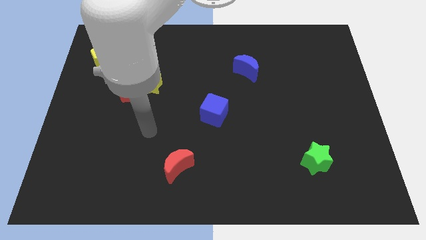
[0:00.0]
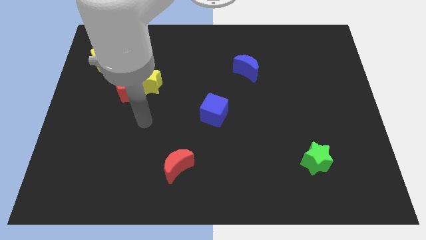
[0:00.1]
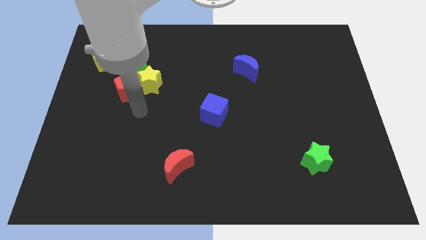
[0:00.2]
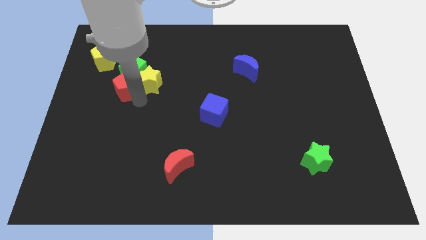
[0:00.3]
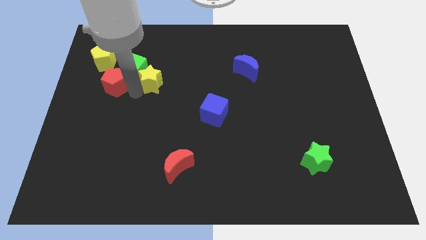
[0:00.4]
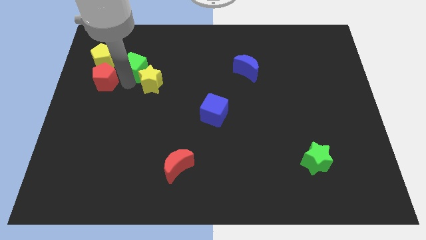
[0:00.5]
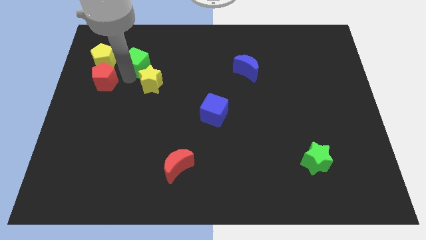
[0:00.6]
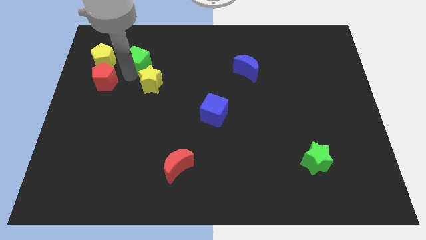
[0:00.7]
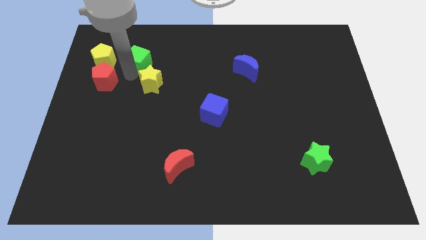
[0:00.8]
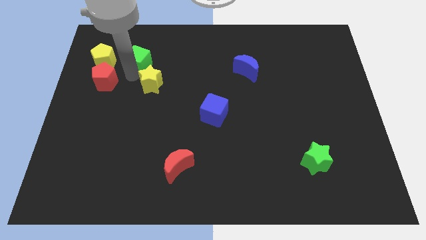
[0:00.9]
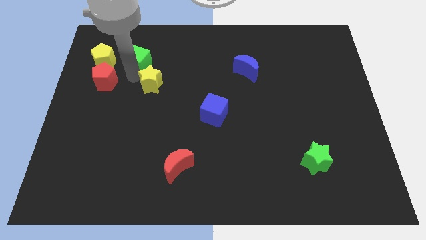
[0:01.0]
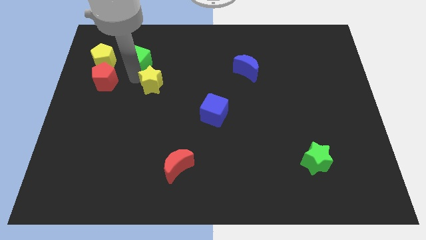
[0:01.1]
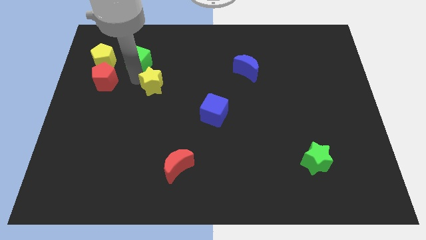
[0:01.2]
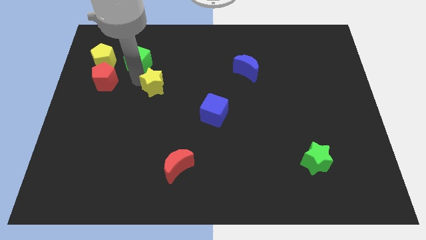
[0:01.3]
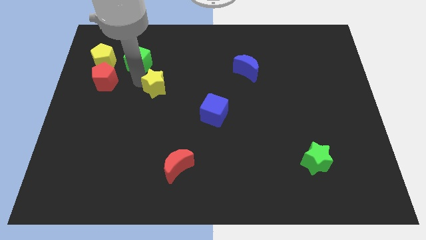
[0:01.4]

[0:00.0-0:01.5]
separate the yellow star from the green cube and red pentagon

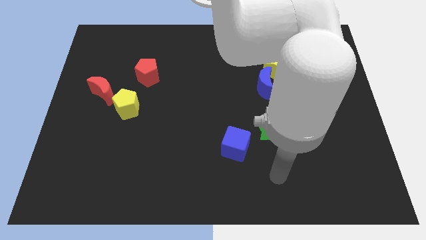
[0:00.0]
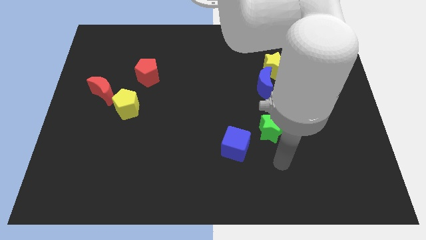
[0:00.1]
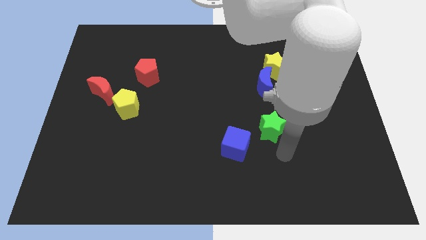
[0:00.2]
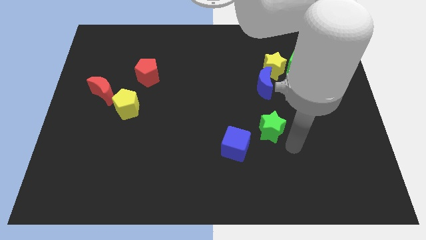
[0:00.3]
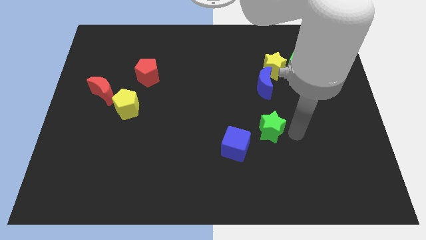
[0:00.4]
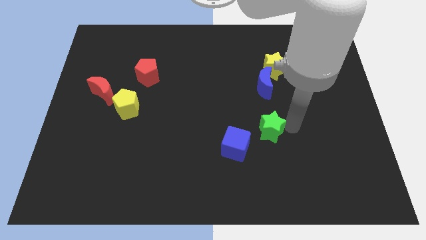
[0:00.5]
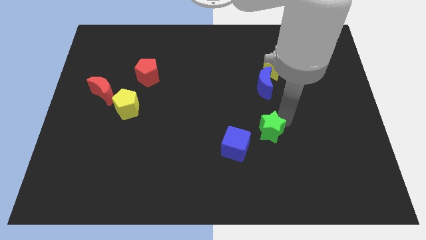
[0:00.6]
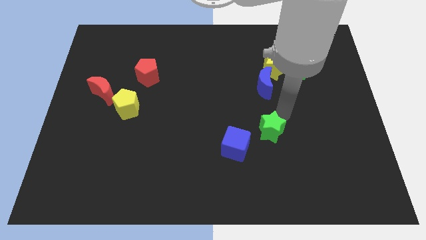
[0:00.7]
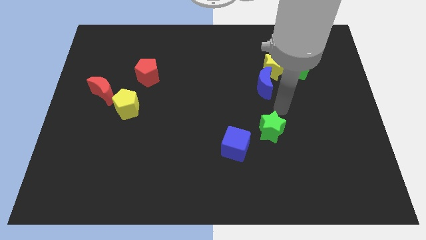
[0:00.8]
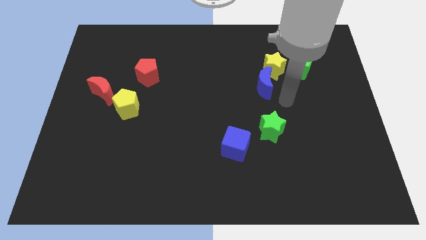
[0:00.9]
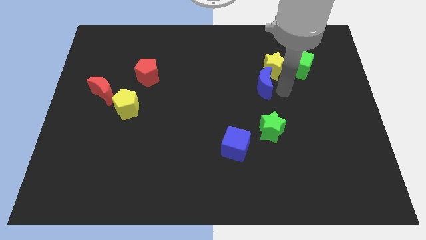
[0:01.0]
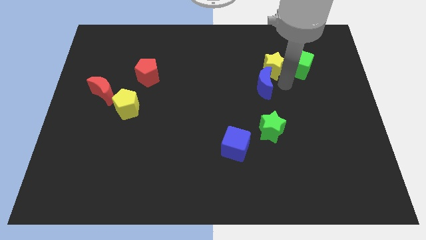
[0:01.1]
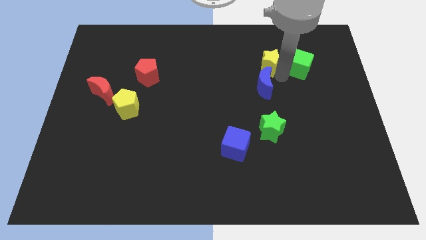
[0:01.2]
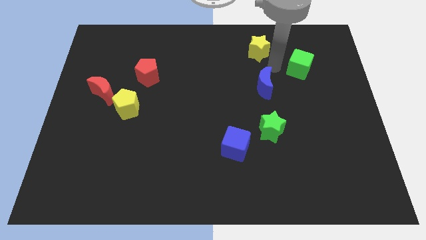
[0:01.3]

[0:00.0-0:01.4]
pull the green cube apart from the yellow star

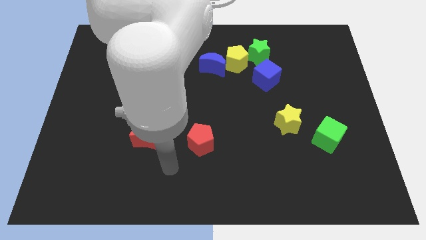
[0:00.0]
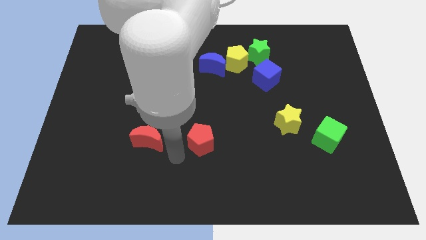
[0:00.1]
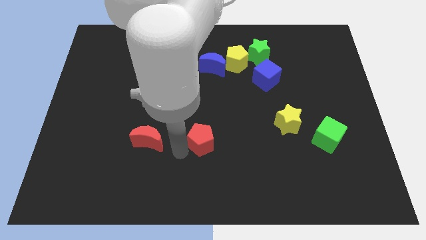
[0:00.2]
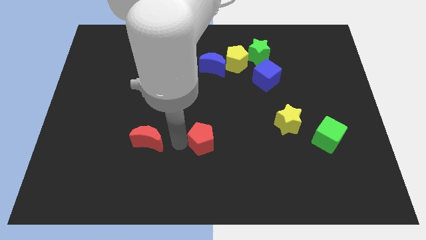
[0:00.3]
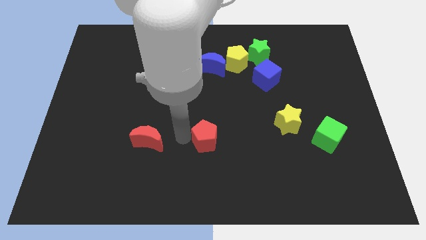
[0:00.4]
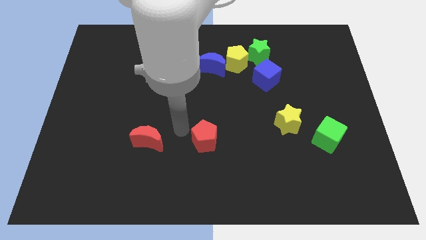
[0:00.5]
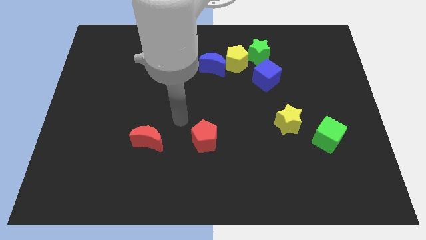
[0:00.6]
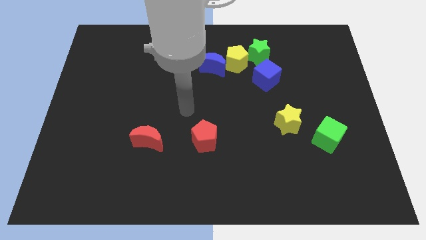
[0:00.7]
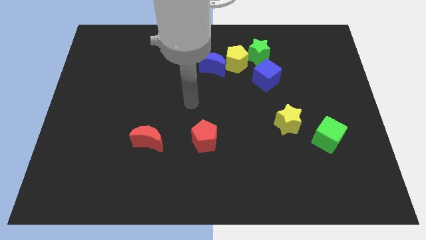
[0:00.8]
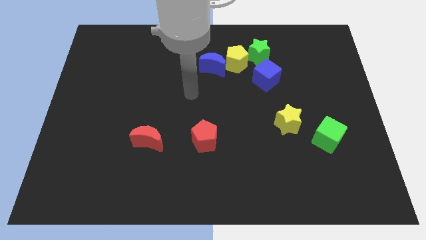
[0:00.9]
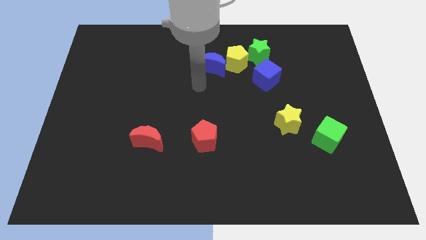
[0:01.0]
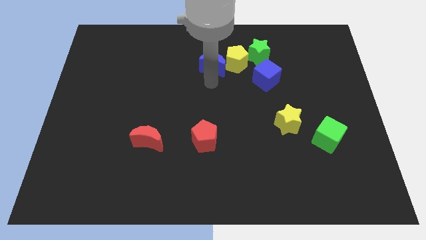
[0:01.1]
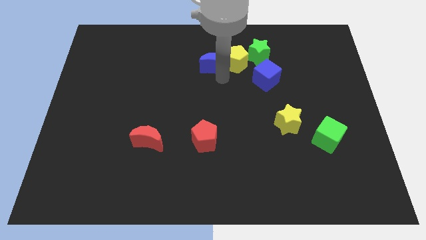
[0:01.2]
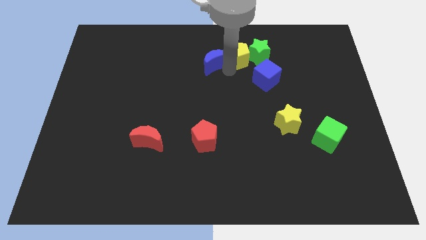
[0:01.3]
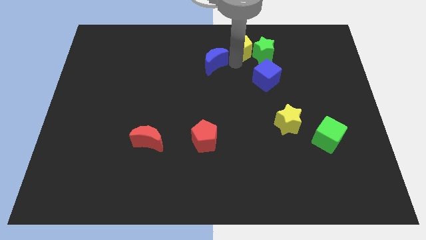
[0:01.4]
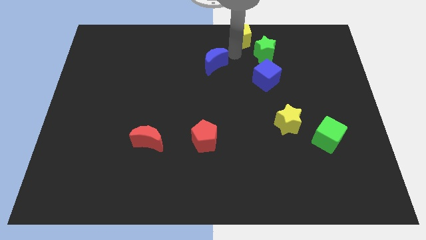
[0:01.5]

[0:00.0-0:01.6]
move the blue moon away from the yellow pentagon

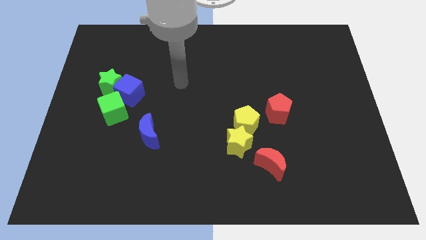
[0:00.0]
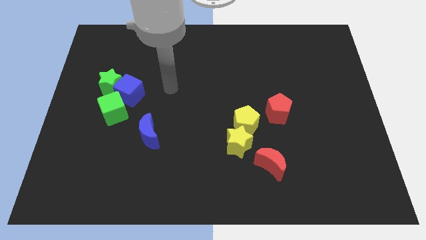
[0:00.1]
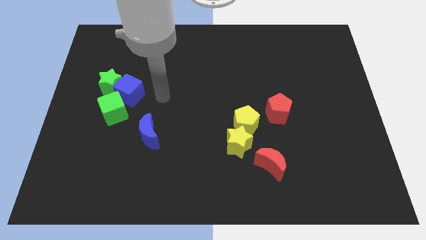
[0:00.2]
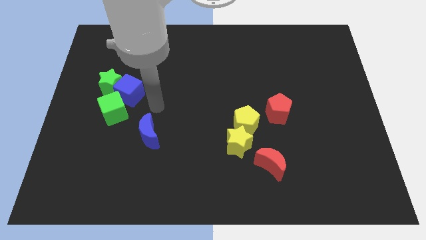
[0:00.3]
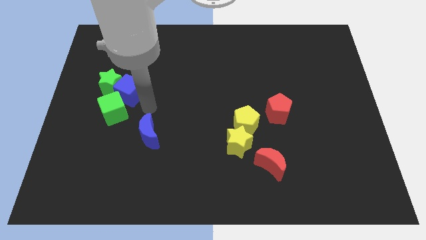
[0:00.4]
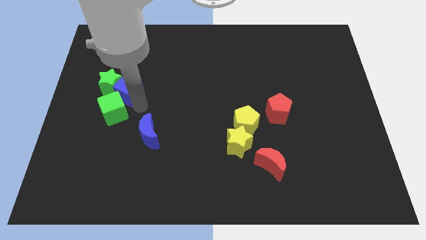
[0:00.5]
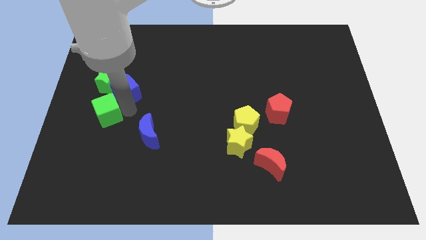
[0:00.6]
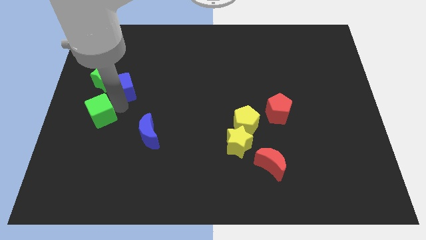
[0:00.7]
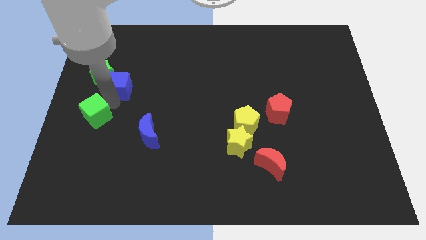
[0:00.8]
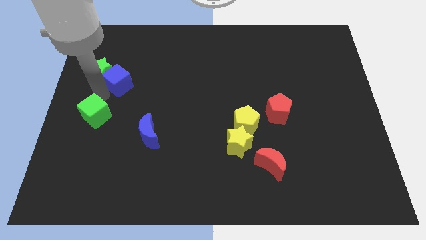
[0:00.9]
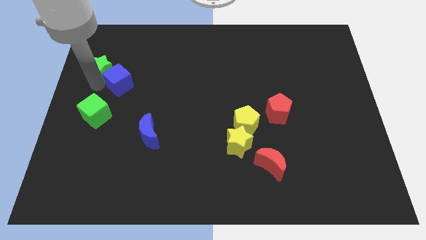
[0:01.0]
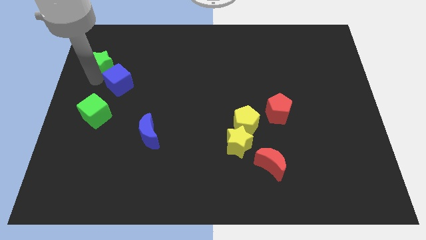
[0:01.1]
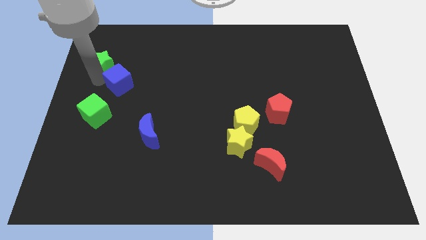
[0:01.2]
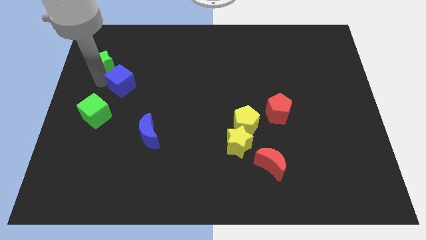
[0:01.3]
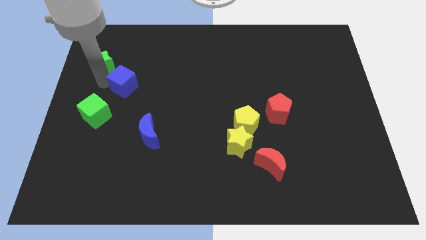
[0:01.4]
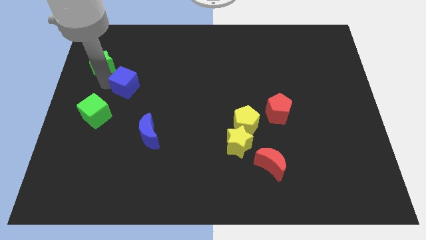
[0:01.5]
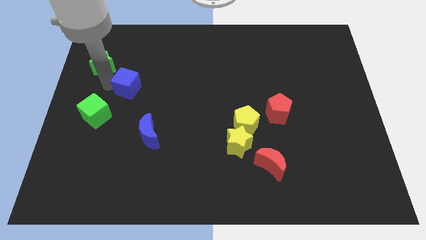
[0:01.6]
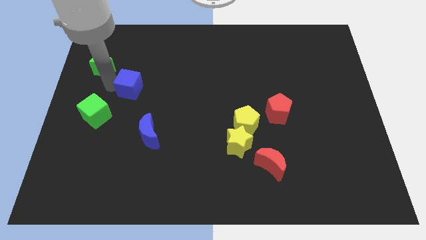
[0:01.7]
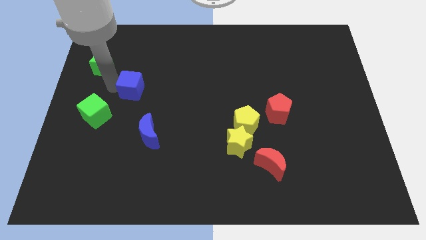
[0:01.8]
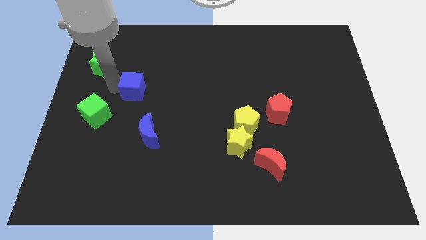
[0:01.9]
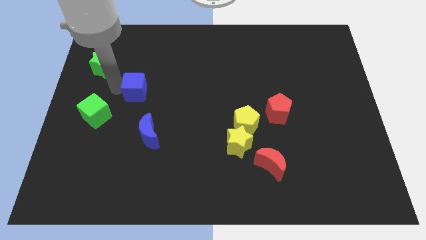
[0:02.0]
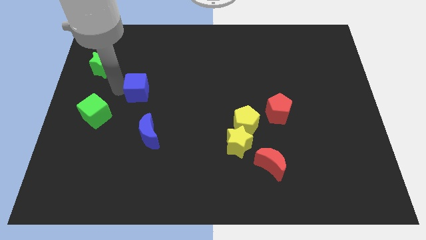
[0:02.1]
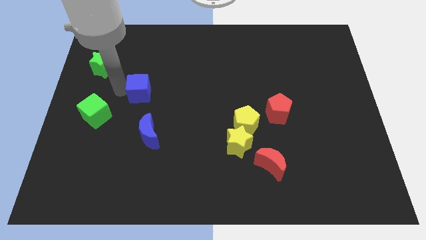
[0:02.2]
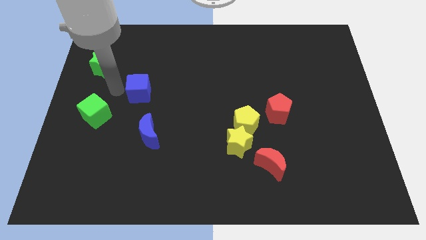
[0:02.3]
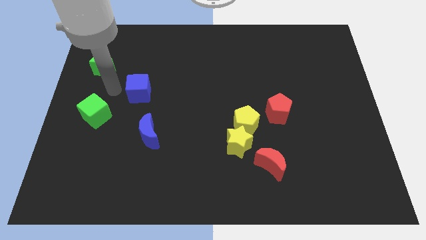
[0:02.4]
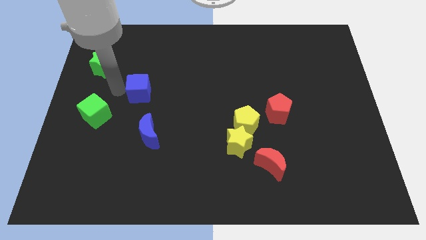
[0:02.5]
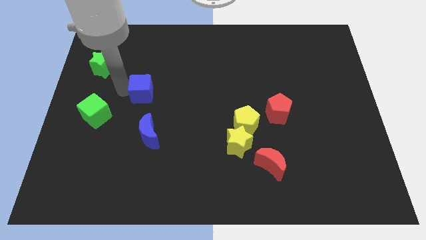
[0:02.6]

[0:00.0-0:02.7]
move the blue cube away from the green star and green cube

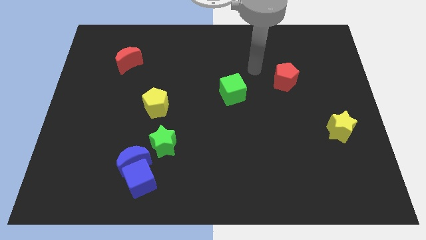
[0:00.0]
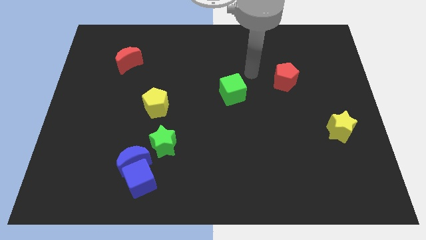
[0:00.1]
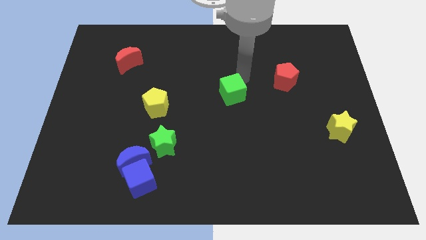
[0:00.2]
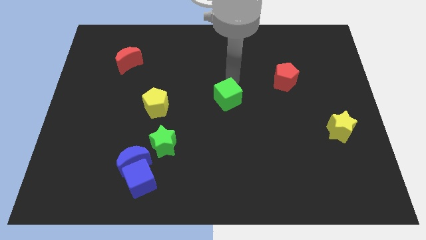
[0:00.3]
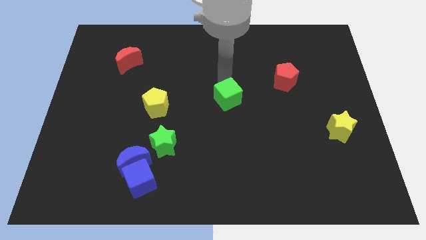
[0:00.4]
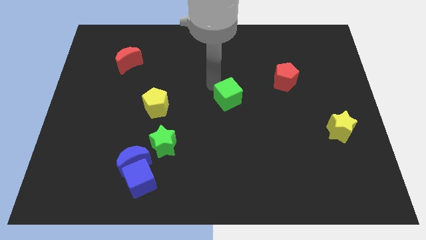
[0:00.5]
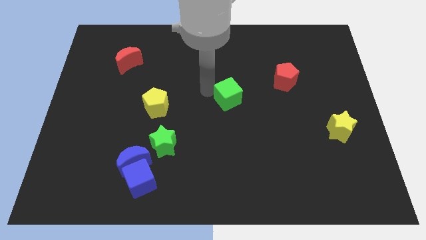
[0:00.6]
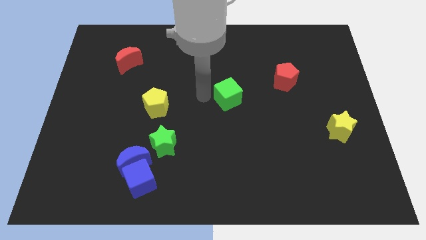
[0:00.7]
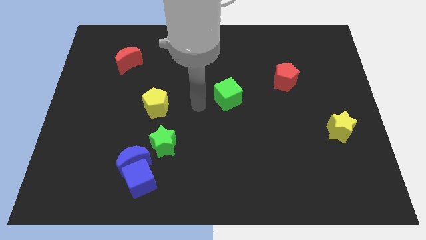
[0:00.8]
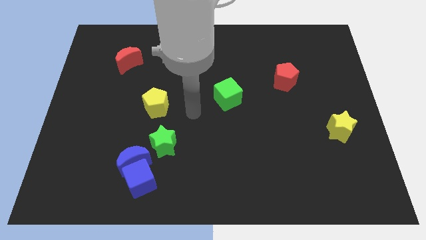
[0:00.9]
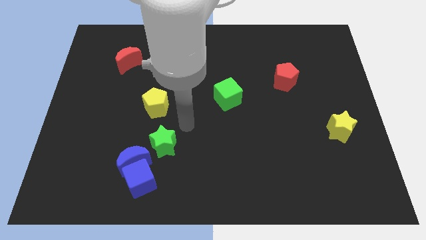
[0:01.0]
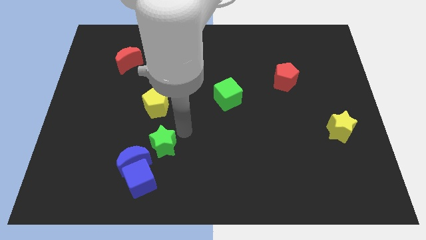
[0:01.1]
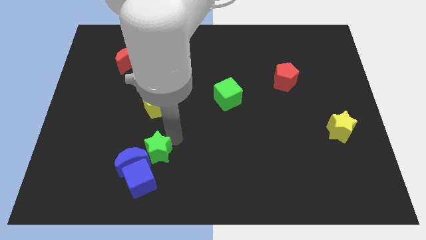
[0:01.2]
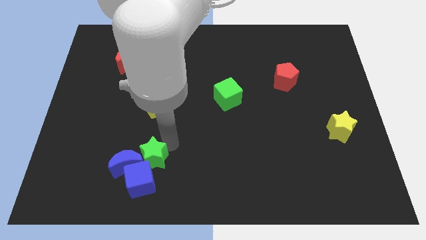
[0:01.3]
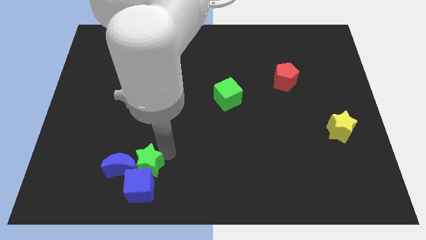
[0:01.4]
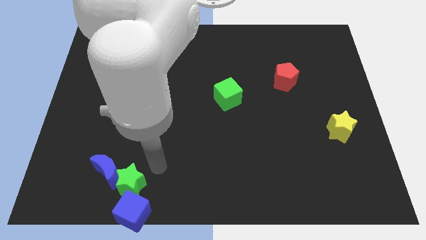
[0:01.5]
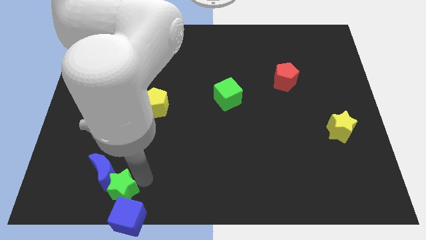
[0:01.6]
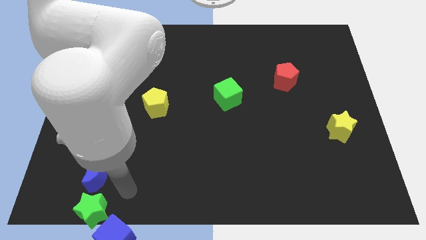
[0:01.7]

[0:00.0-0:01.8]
pull the blue moon apart from the blue cube and green star

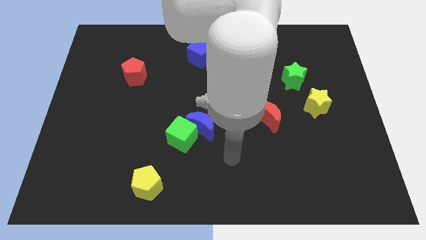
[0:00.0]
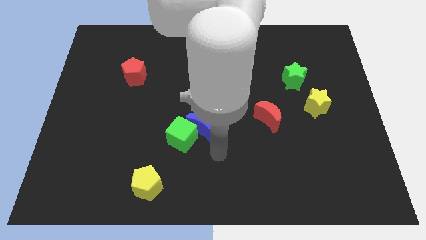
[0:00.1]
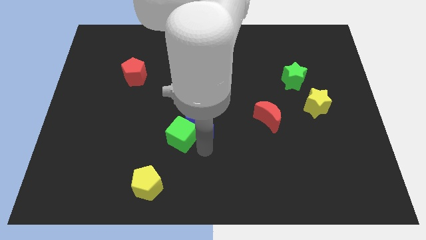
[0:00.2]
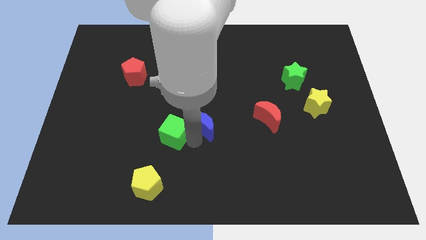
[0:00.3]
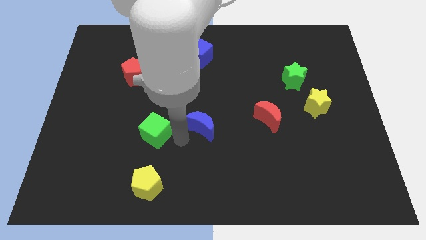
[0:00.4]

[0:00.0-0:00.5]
separate the blue moon from the green cube
